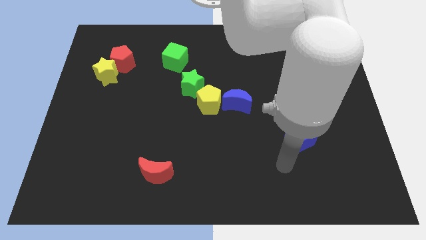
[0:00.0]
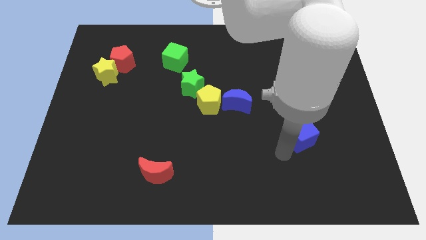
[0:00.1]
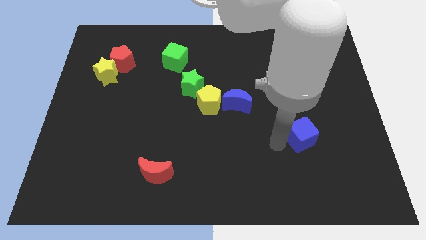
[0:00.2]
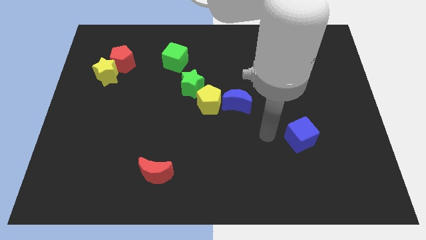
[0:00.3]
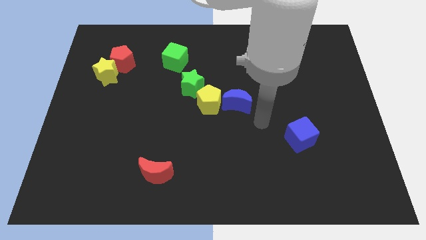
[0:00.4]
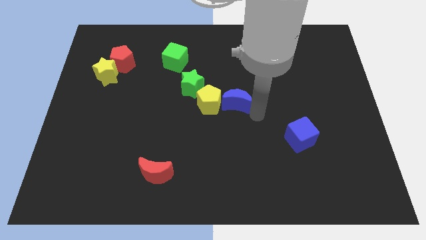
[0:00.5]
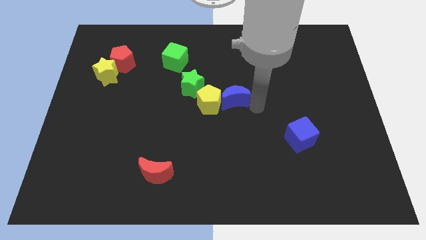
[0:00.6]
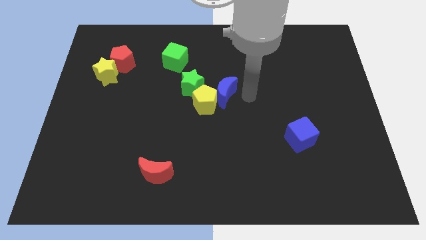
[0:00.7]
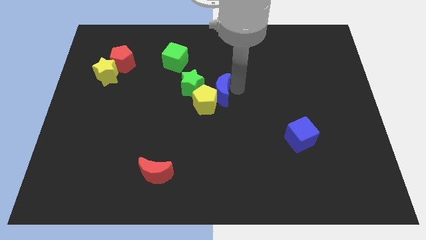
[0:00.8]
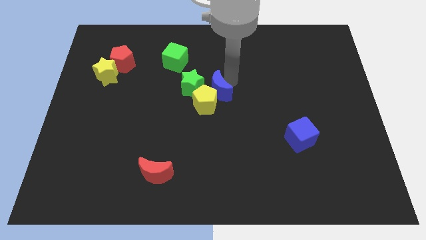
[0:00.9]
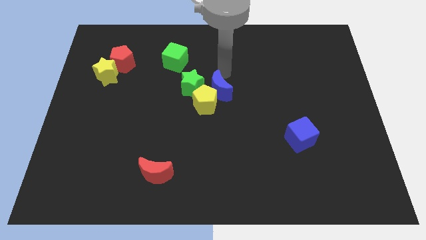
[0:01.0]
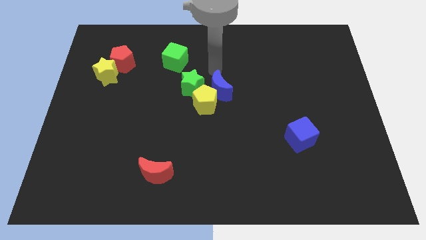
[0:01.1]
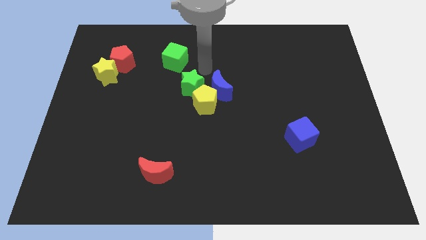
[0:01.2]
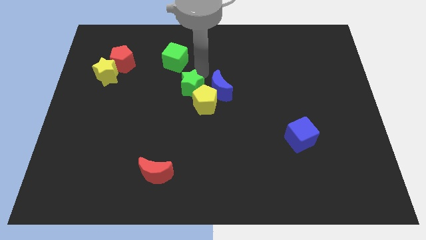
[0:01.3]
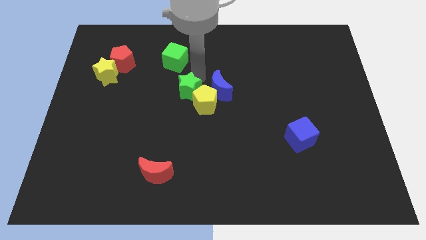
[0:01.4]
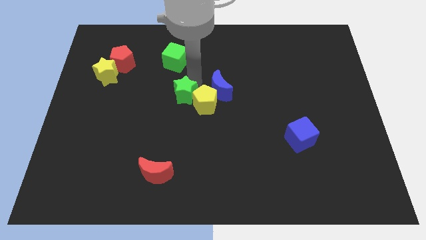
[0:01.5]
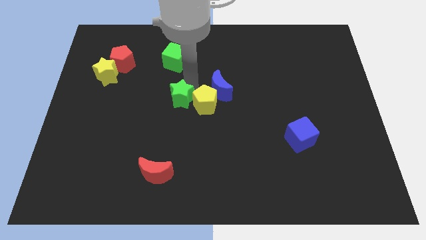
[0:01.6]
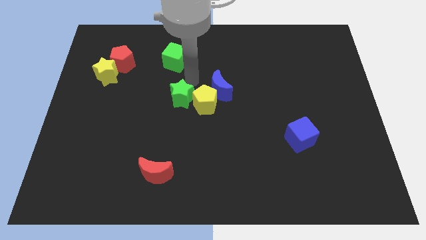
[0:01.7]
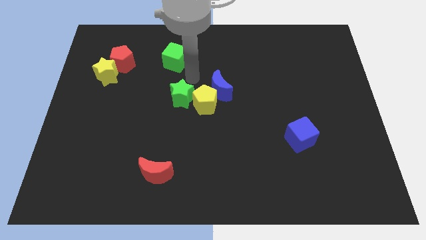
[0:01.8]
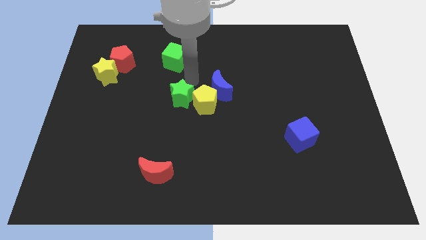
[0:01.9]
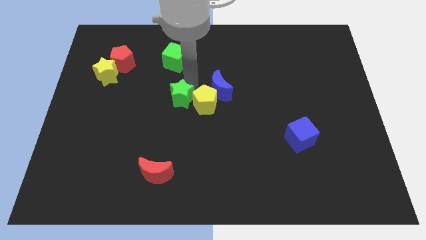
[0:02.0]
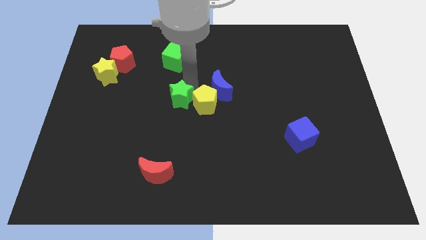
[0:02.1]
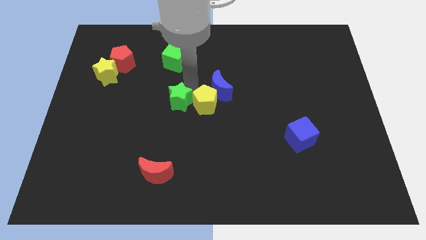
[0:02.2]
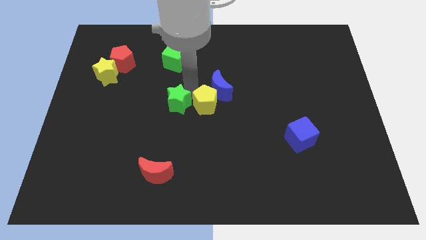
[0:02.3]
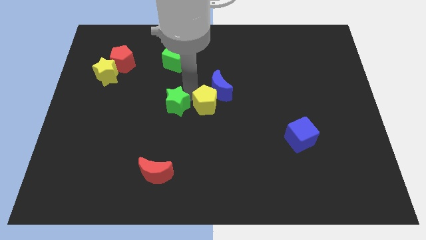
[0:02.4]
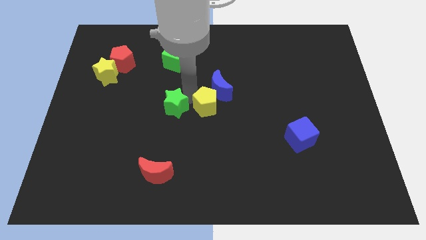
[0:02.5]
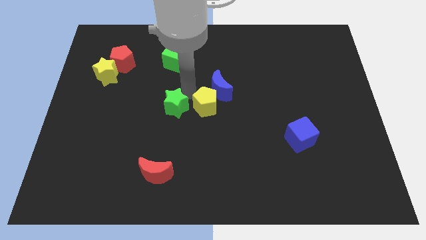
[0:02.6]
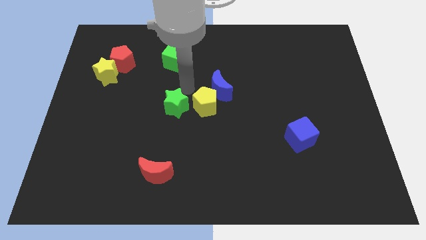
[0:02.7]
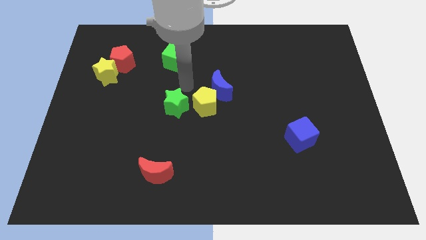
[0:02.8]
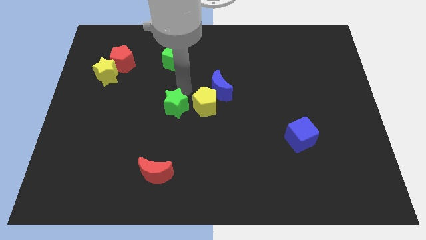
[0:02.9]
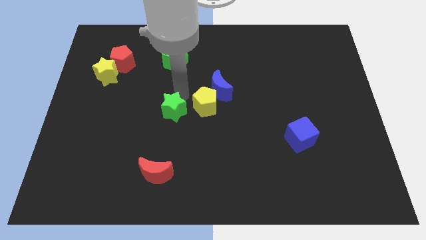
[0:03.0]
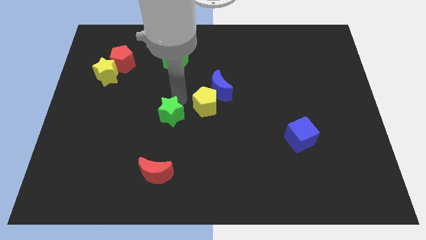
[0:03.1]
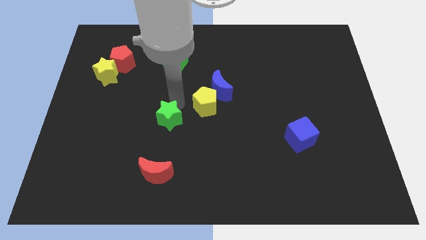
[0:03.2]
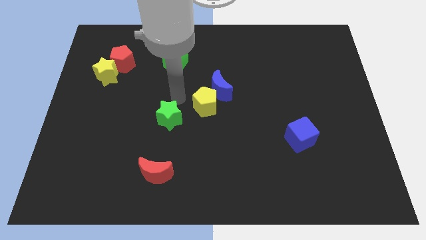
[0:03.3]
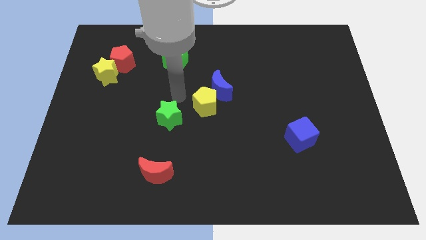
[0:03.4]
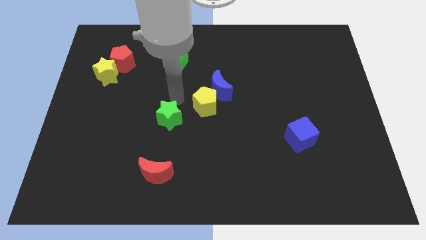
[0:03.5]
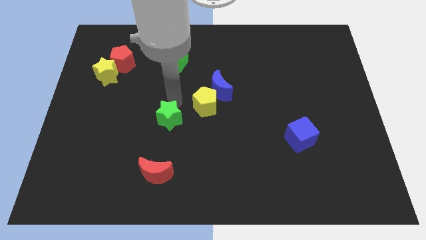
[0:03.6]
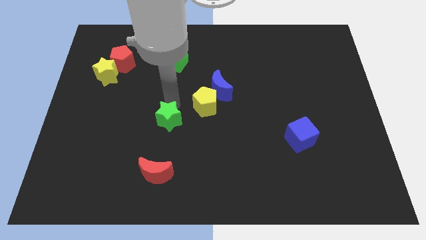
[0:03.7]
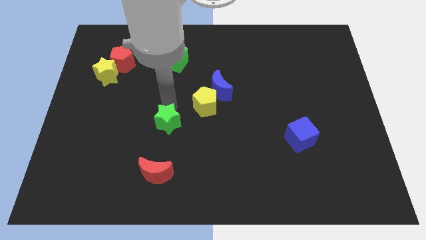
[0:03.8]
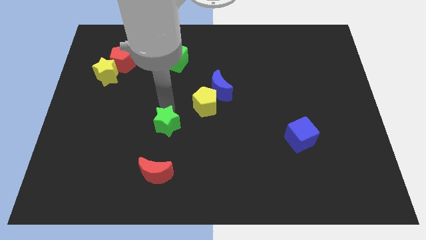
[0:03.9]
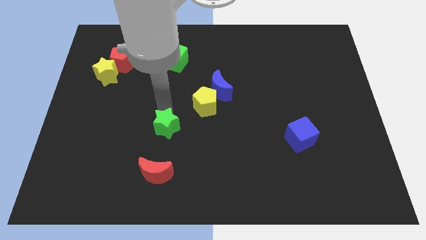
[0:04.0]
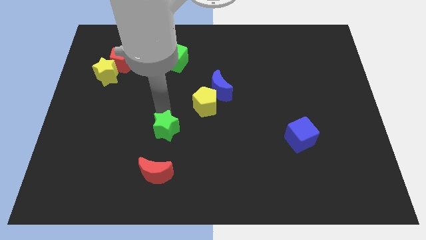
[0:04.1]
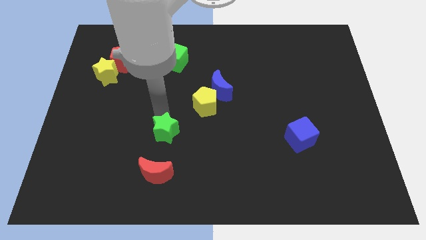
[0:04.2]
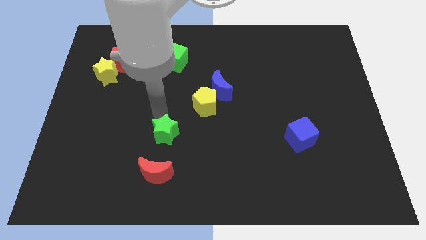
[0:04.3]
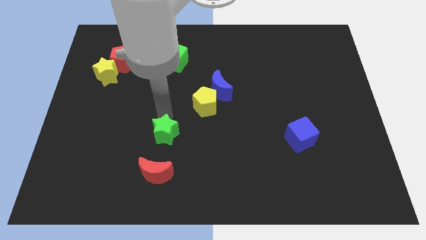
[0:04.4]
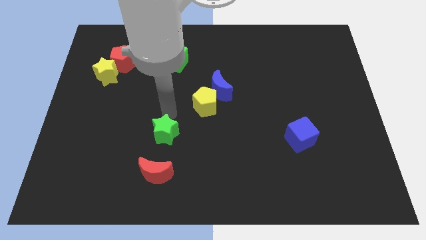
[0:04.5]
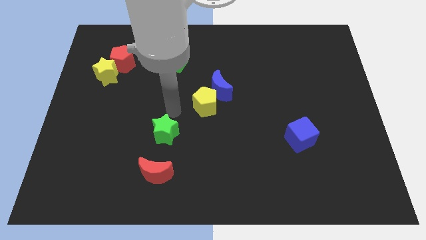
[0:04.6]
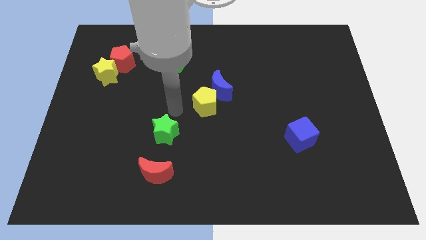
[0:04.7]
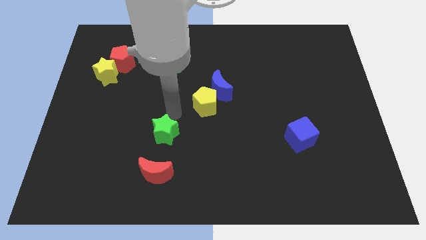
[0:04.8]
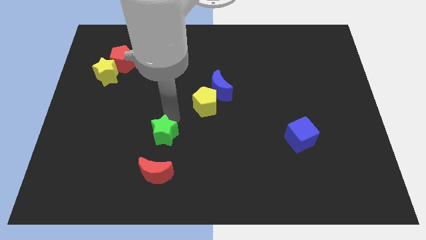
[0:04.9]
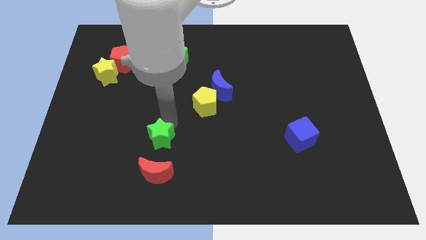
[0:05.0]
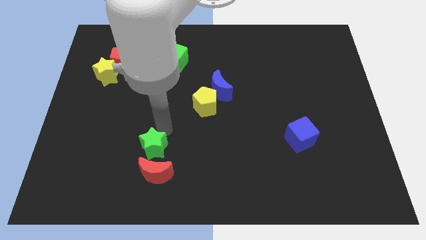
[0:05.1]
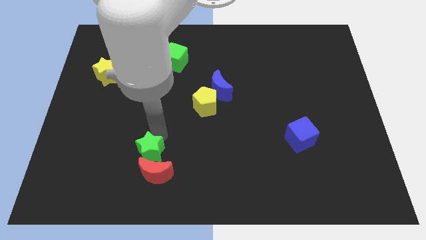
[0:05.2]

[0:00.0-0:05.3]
move the green star towards the red moon

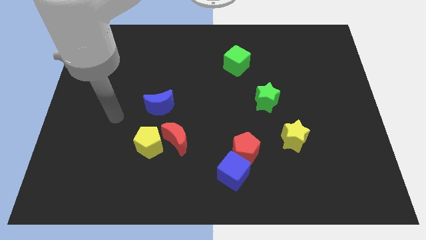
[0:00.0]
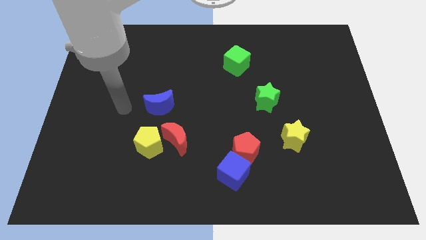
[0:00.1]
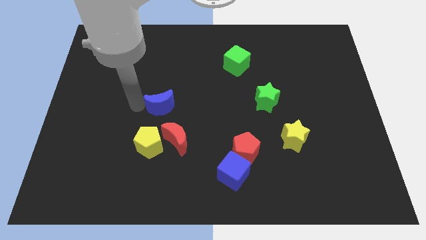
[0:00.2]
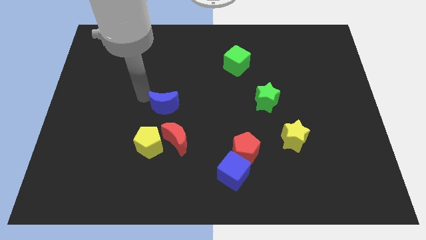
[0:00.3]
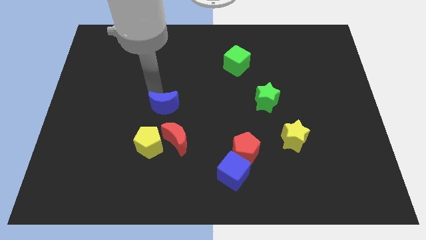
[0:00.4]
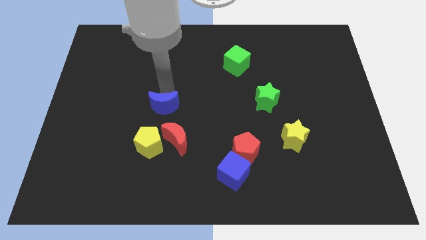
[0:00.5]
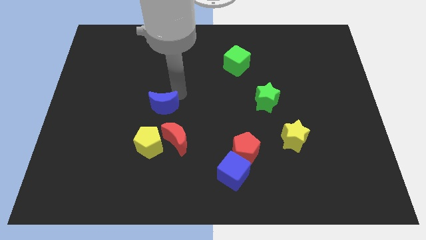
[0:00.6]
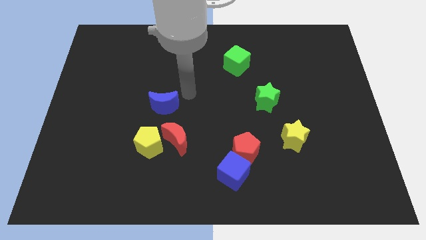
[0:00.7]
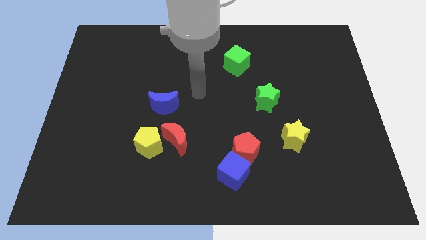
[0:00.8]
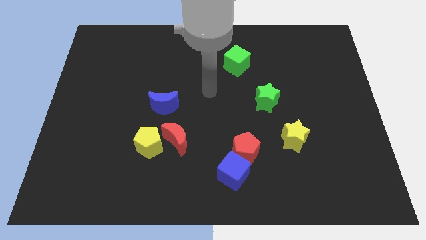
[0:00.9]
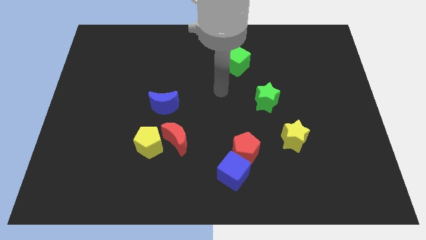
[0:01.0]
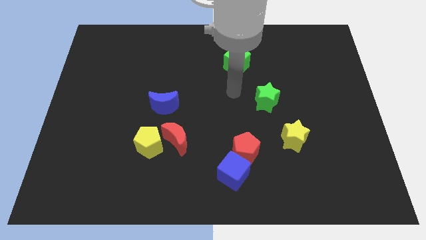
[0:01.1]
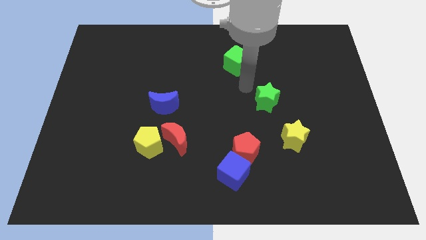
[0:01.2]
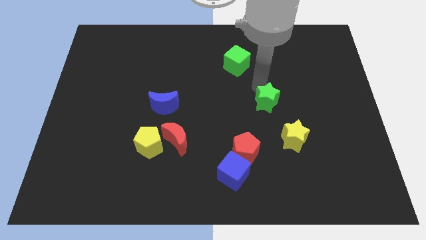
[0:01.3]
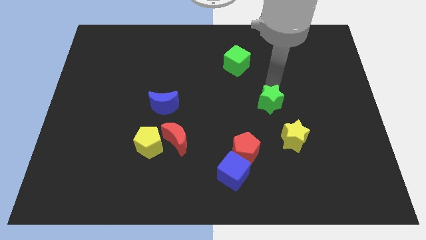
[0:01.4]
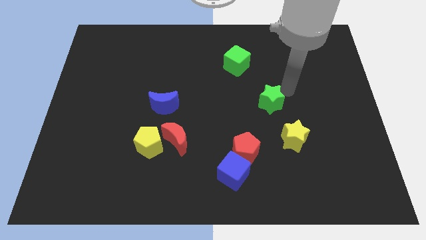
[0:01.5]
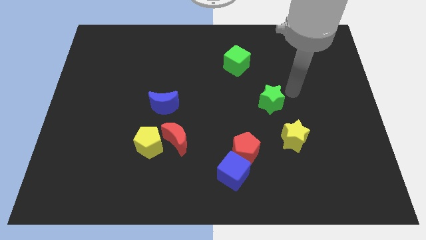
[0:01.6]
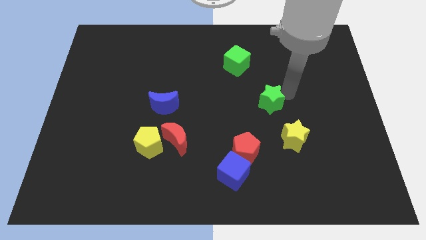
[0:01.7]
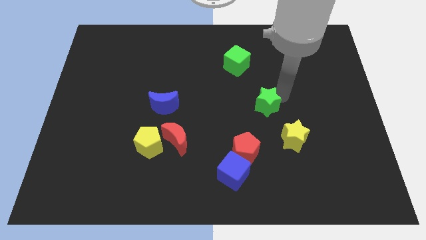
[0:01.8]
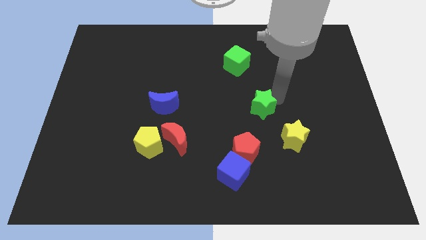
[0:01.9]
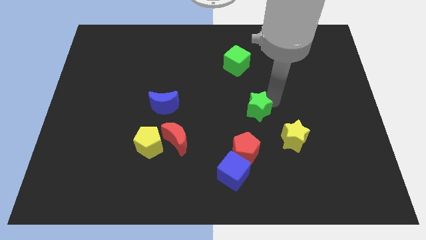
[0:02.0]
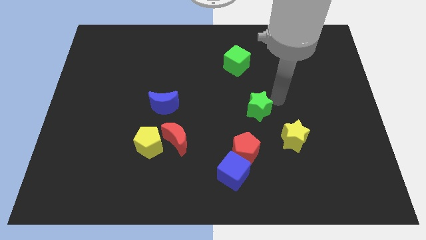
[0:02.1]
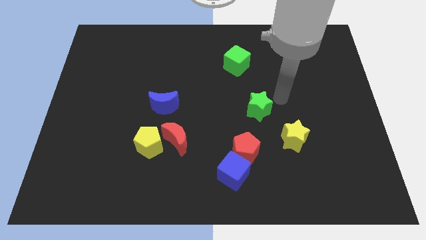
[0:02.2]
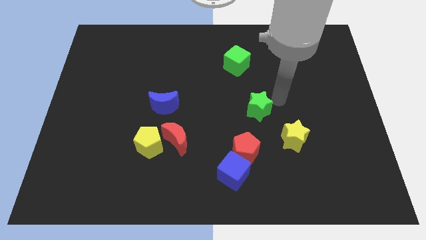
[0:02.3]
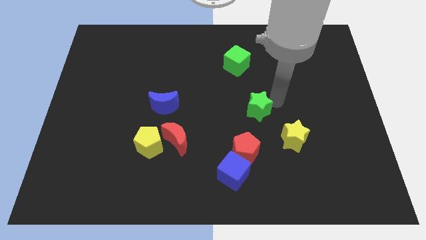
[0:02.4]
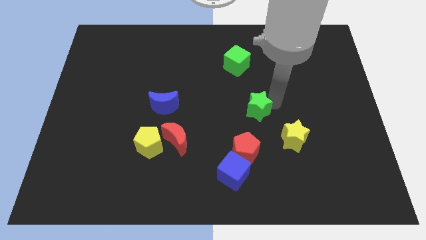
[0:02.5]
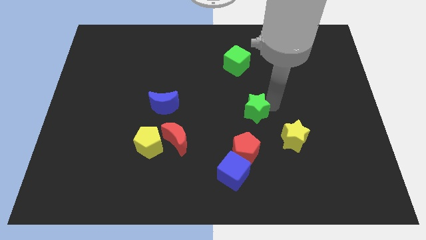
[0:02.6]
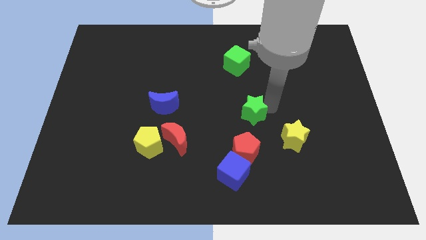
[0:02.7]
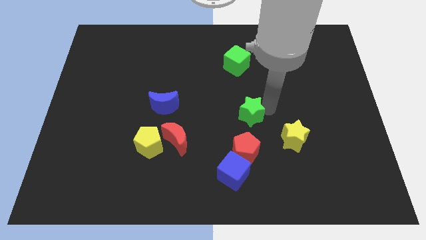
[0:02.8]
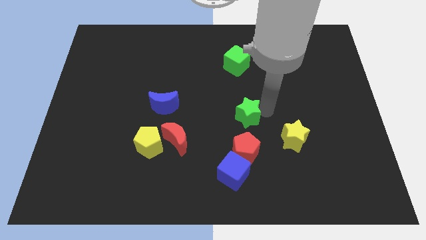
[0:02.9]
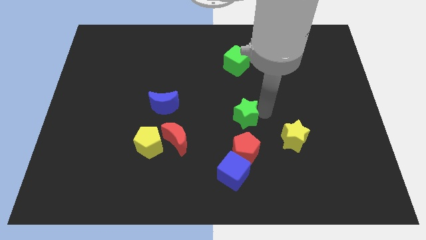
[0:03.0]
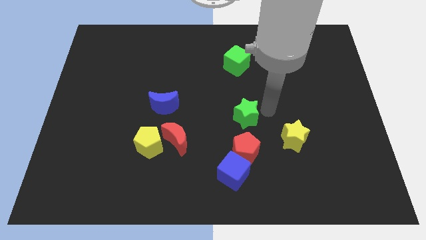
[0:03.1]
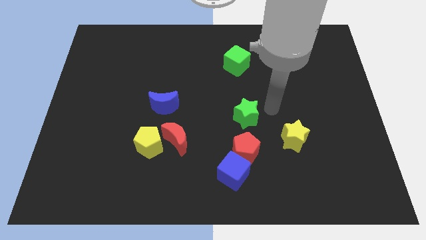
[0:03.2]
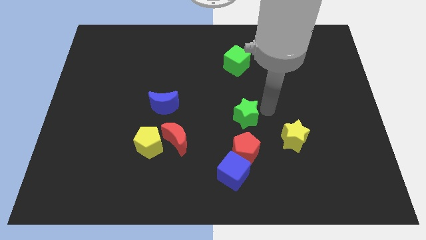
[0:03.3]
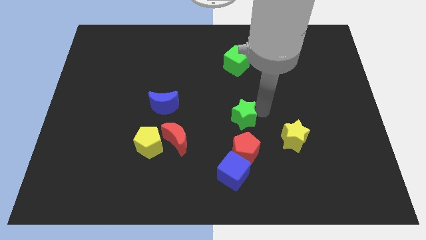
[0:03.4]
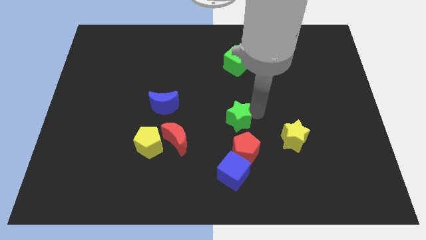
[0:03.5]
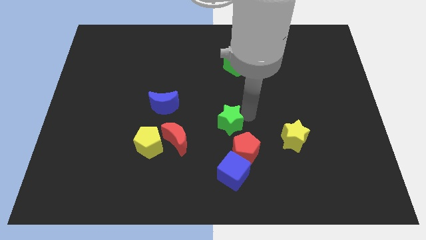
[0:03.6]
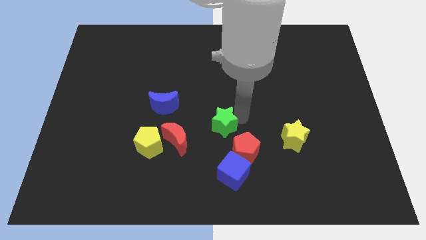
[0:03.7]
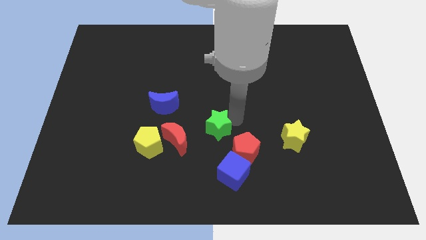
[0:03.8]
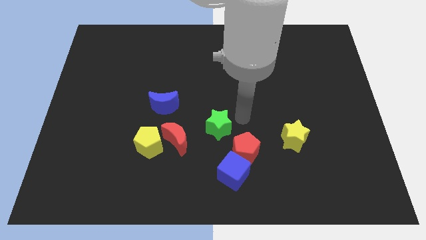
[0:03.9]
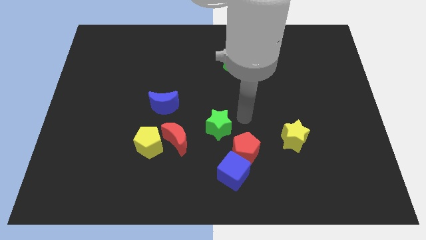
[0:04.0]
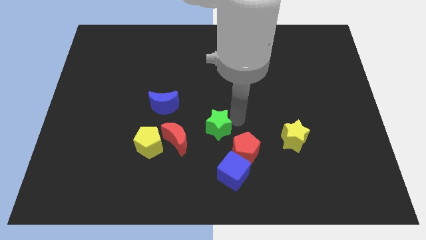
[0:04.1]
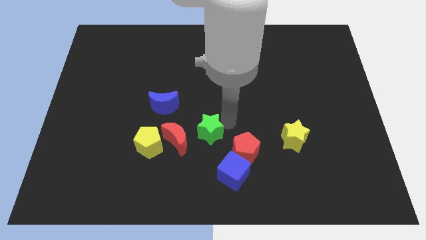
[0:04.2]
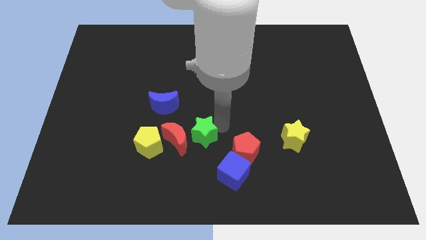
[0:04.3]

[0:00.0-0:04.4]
push the green star towards the red moon
